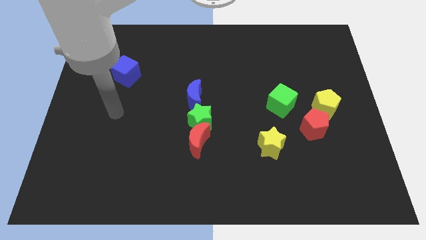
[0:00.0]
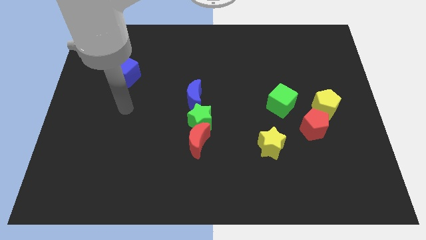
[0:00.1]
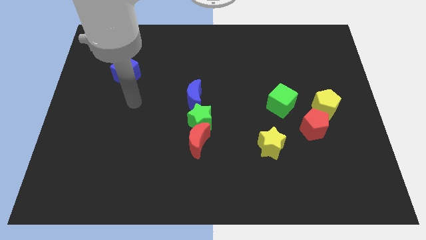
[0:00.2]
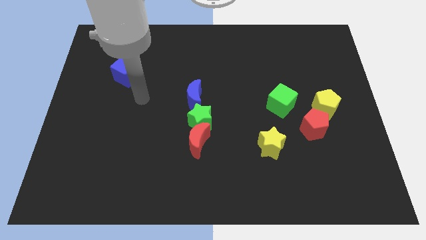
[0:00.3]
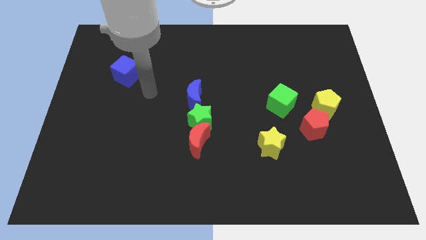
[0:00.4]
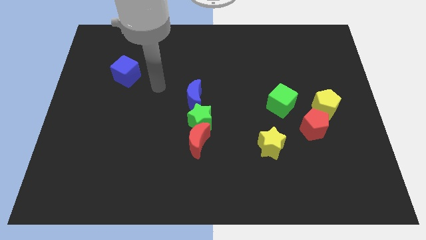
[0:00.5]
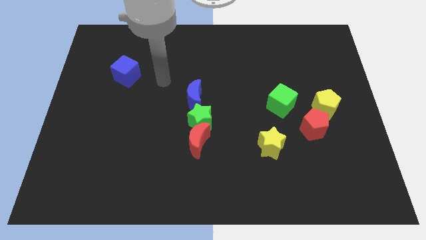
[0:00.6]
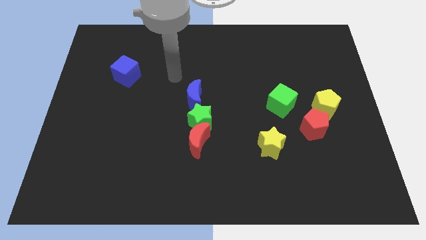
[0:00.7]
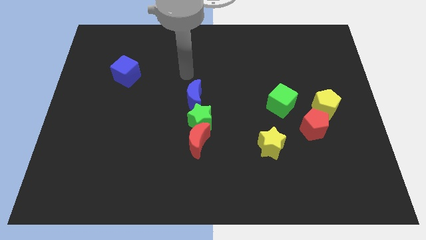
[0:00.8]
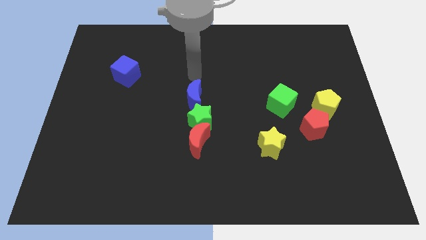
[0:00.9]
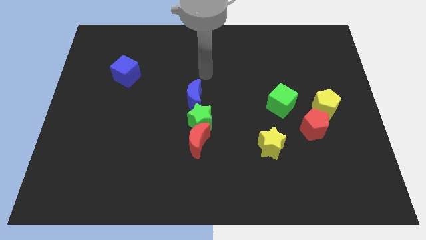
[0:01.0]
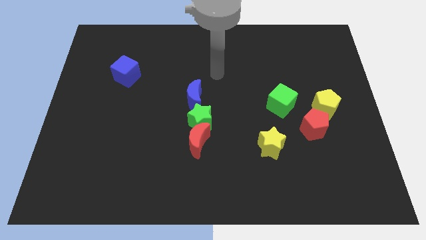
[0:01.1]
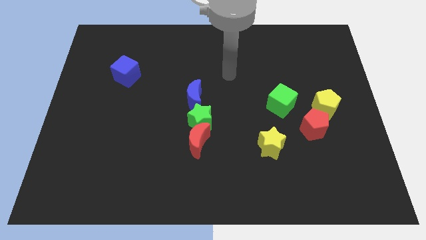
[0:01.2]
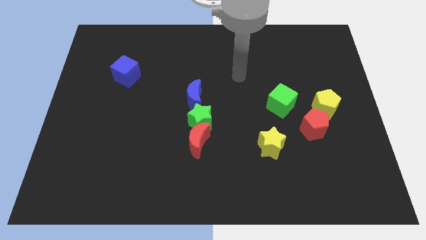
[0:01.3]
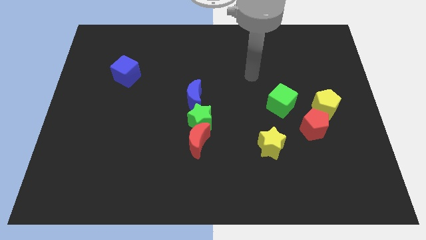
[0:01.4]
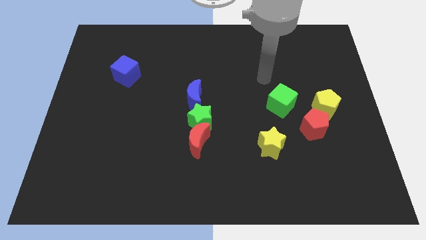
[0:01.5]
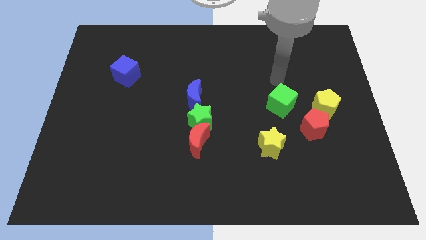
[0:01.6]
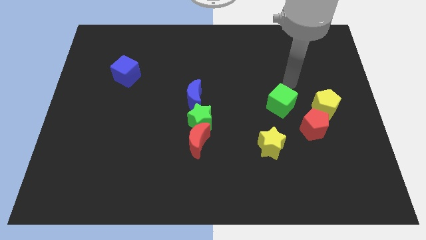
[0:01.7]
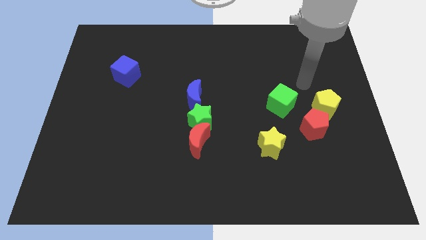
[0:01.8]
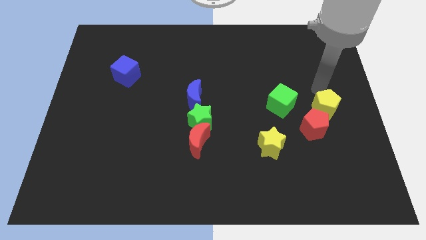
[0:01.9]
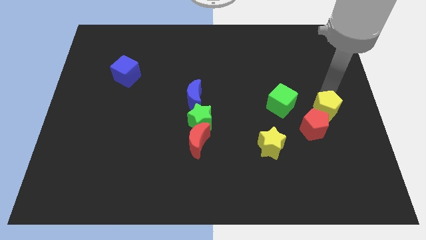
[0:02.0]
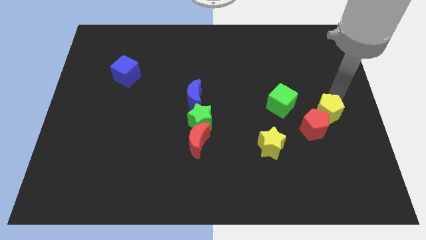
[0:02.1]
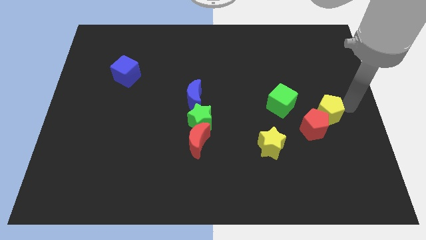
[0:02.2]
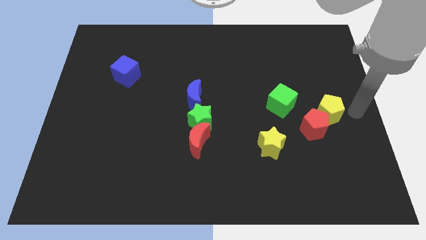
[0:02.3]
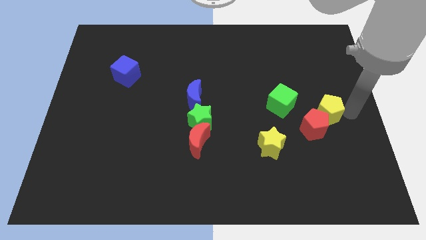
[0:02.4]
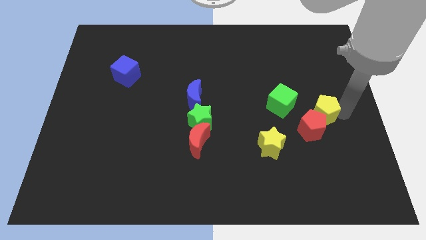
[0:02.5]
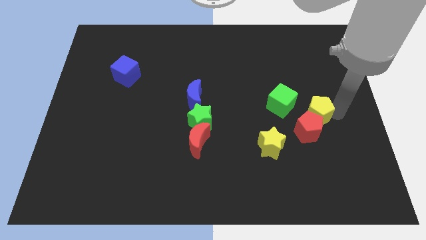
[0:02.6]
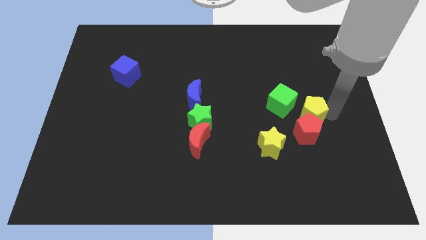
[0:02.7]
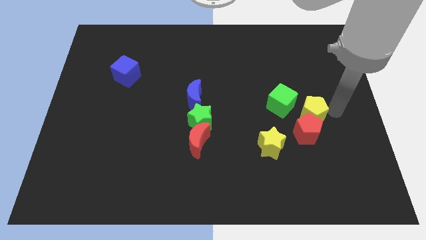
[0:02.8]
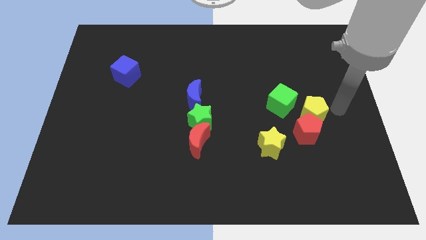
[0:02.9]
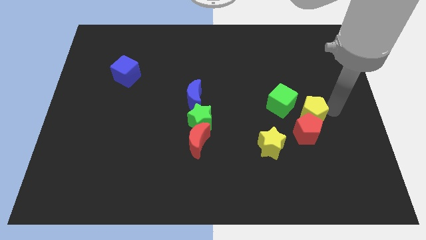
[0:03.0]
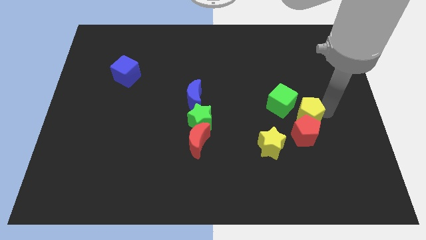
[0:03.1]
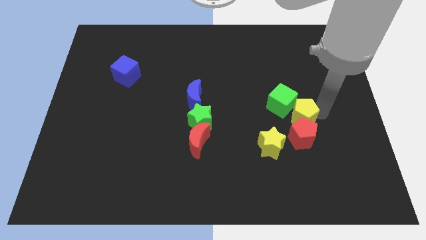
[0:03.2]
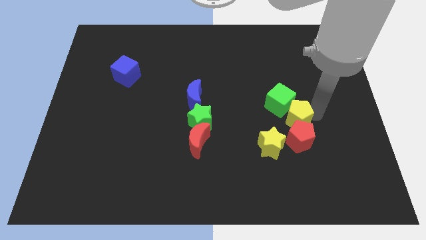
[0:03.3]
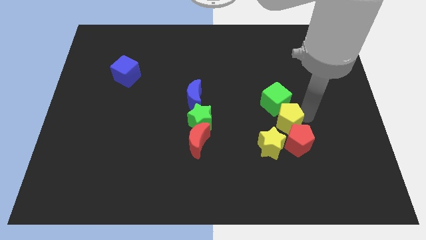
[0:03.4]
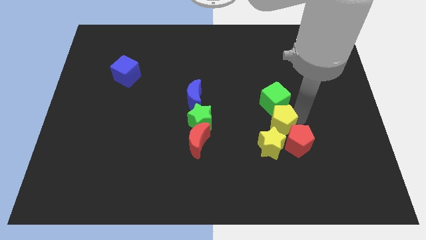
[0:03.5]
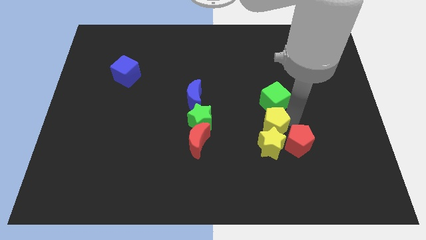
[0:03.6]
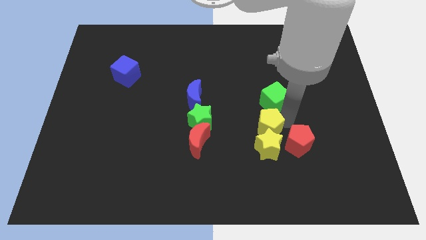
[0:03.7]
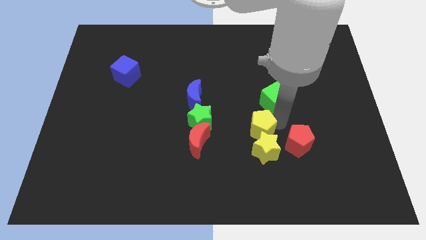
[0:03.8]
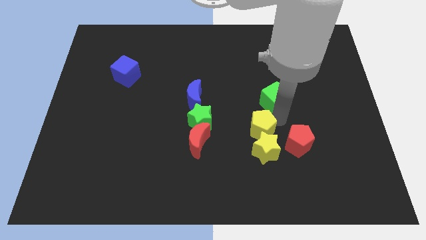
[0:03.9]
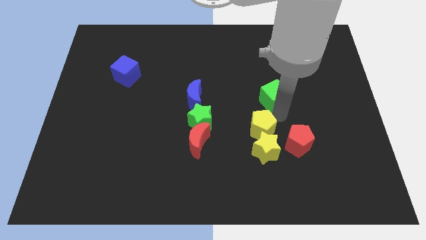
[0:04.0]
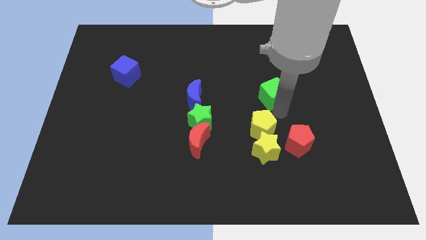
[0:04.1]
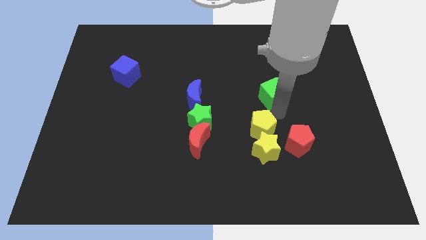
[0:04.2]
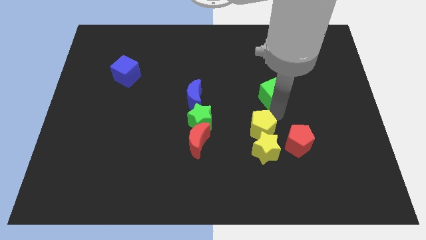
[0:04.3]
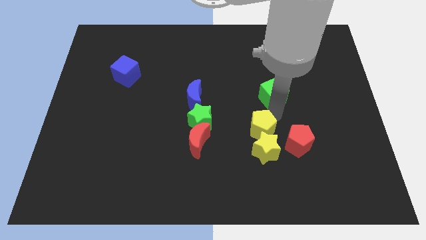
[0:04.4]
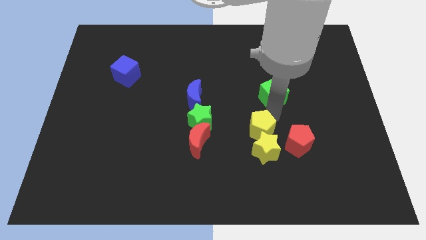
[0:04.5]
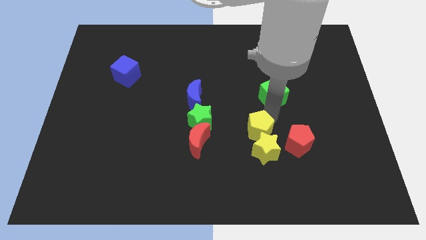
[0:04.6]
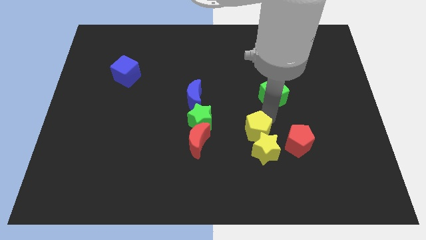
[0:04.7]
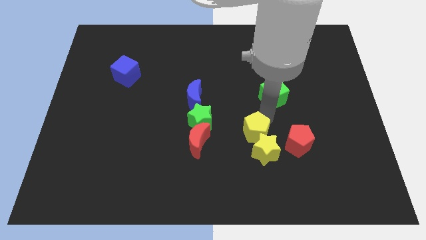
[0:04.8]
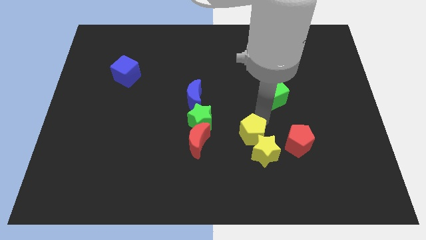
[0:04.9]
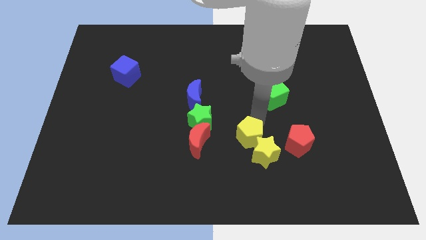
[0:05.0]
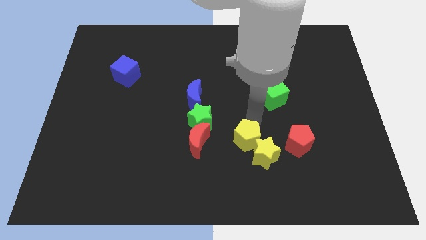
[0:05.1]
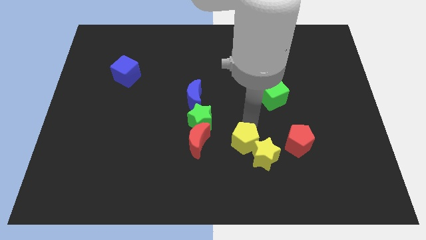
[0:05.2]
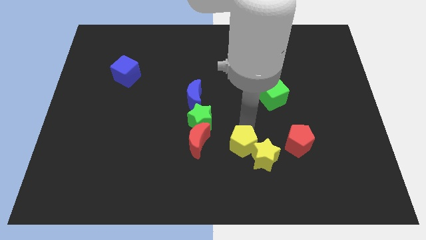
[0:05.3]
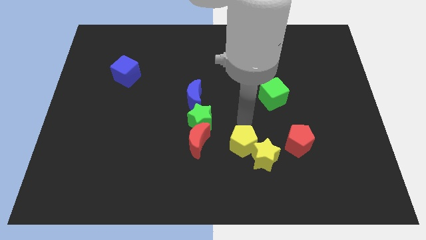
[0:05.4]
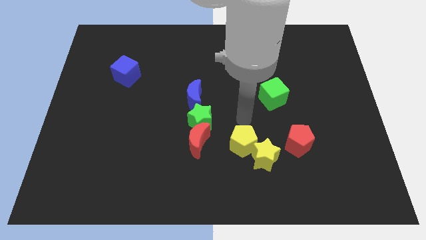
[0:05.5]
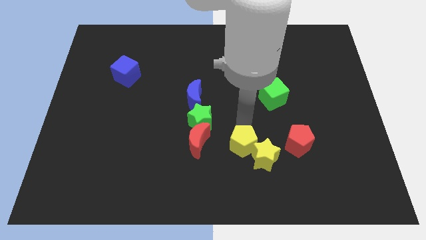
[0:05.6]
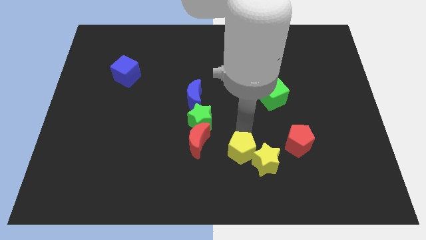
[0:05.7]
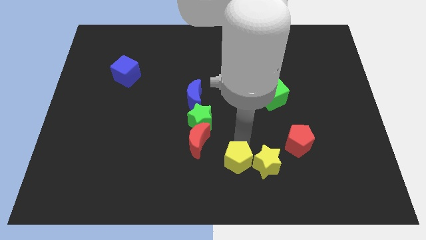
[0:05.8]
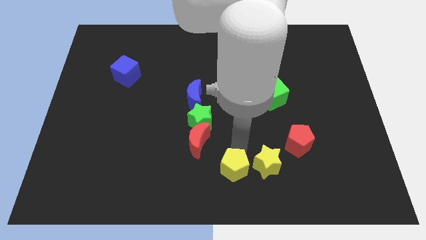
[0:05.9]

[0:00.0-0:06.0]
push the yellow pentagon diagonally down and to the left of the yellow star

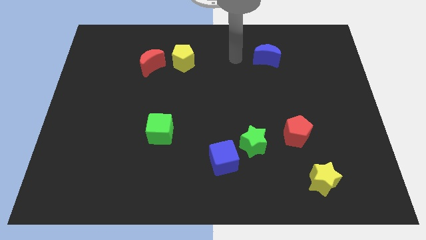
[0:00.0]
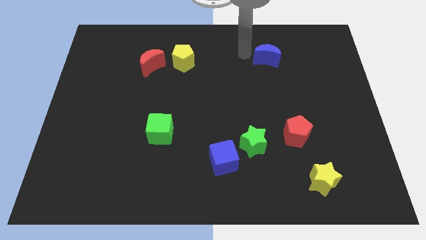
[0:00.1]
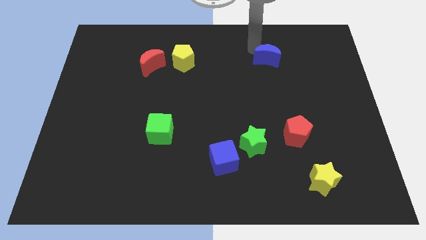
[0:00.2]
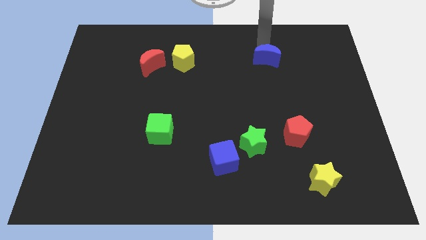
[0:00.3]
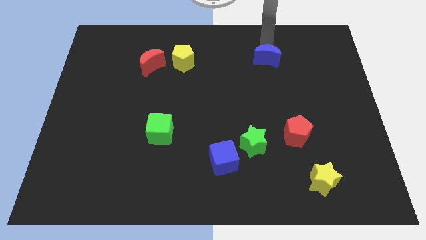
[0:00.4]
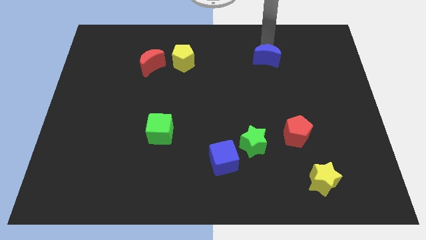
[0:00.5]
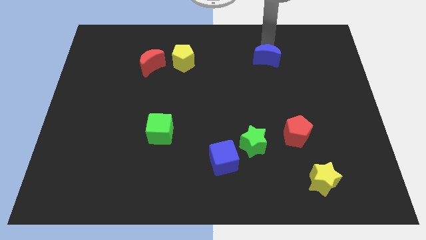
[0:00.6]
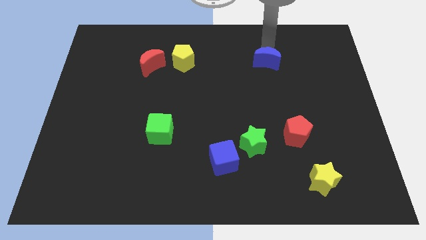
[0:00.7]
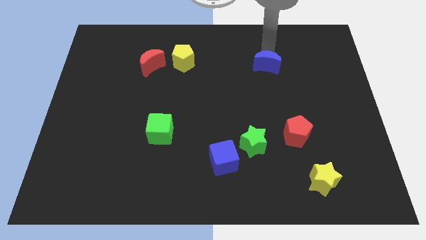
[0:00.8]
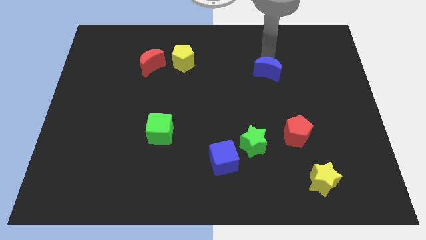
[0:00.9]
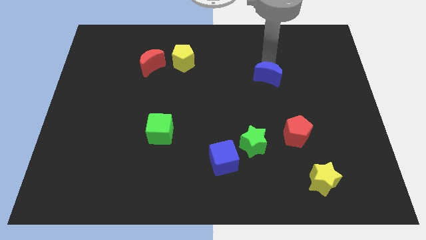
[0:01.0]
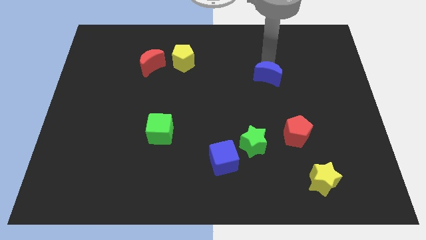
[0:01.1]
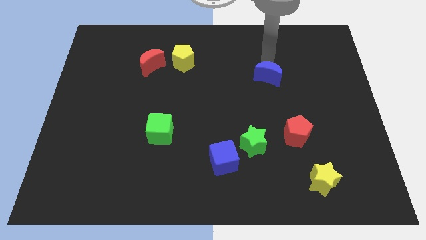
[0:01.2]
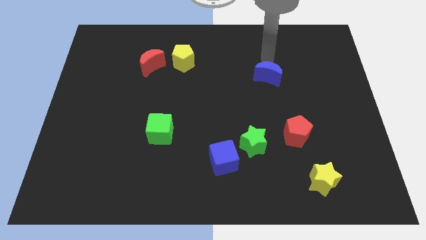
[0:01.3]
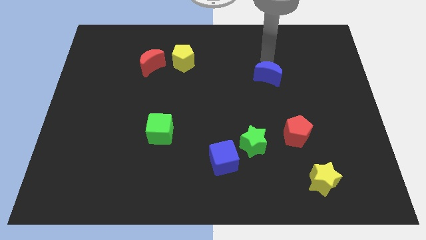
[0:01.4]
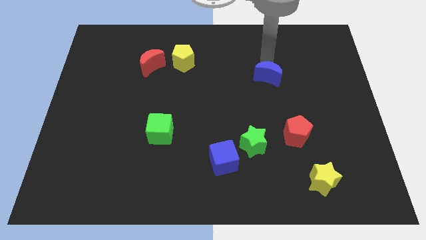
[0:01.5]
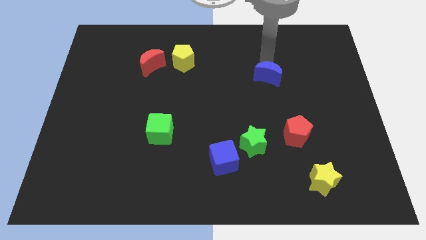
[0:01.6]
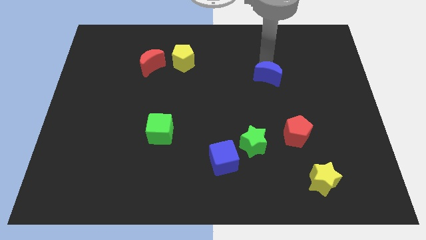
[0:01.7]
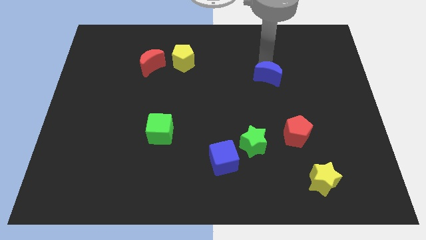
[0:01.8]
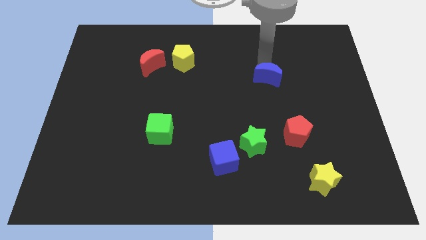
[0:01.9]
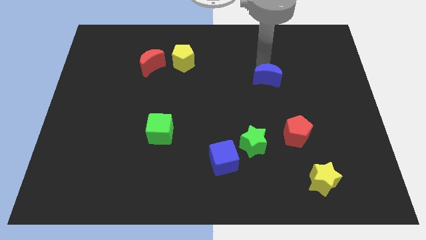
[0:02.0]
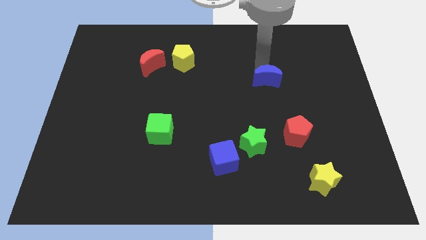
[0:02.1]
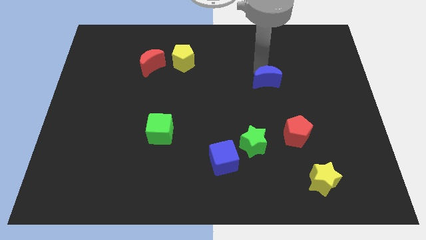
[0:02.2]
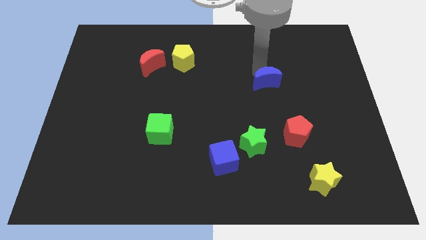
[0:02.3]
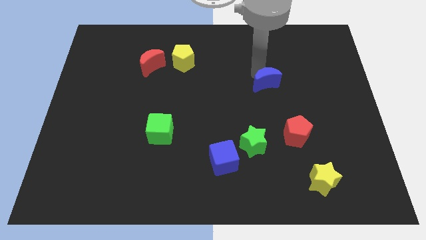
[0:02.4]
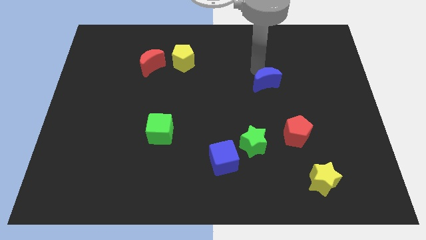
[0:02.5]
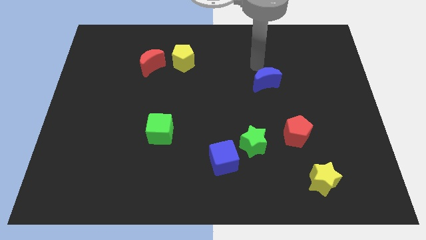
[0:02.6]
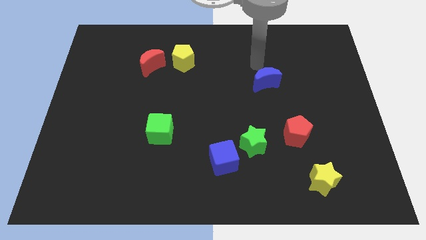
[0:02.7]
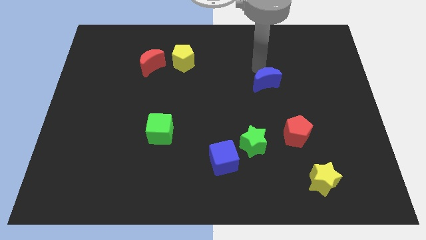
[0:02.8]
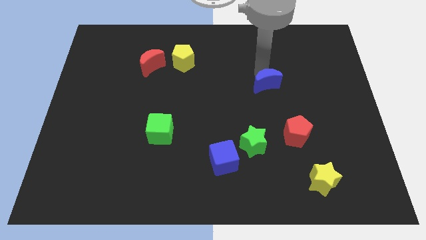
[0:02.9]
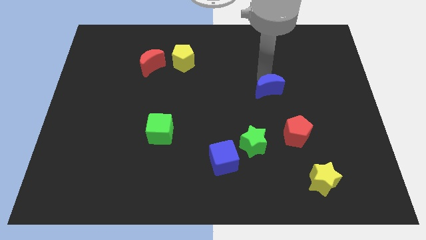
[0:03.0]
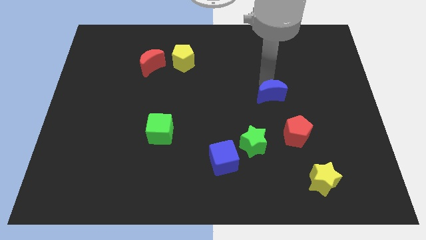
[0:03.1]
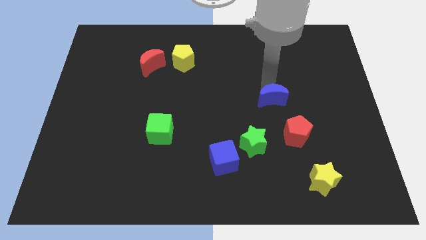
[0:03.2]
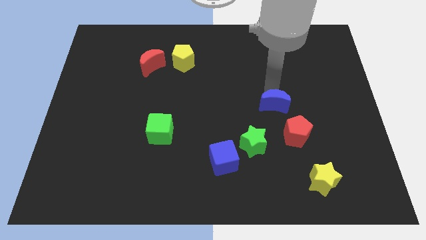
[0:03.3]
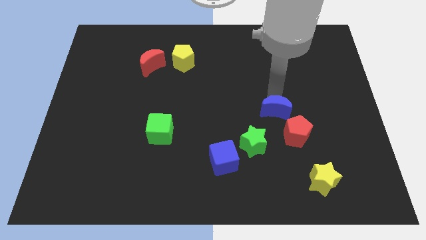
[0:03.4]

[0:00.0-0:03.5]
slide the blue moon to the top right of the green star
